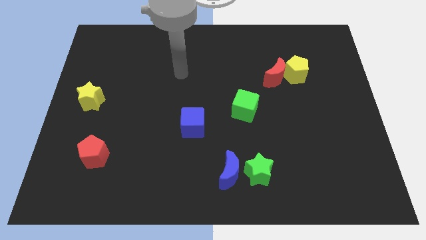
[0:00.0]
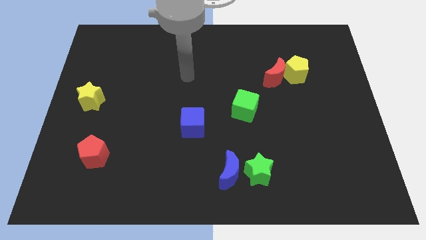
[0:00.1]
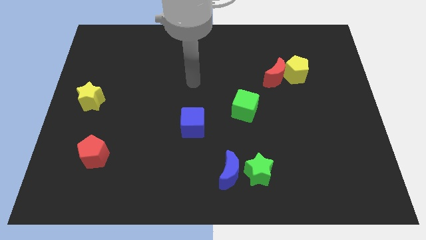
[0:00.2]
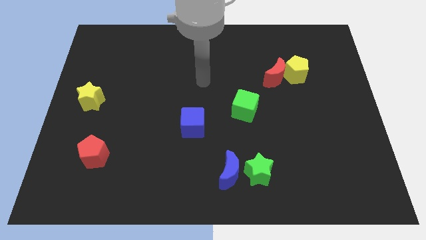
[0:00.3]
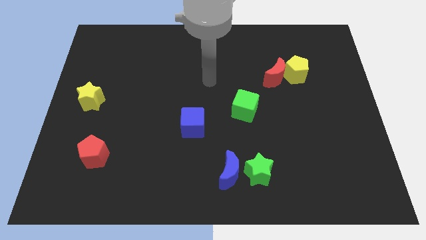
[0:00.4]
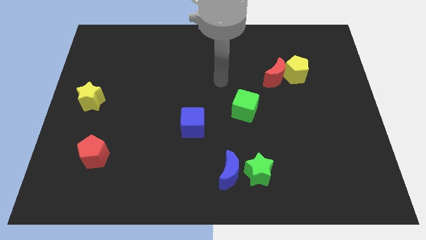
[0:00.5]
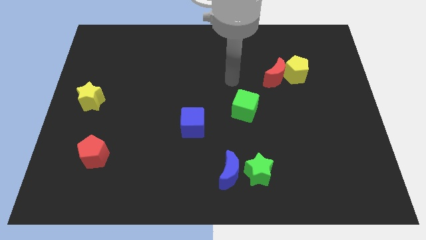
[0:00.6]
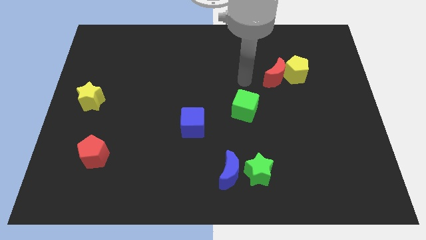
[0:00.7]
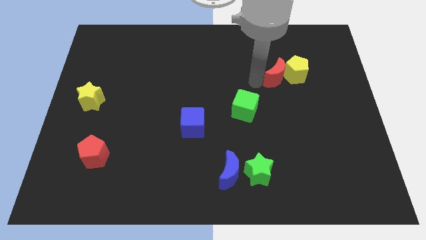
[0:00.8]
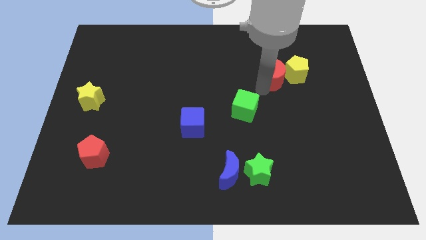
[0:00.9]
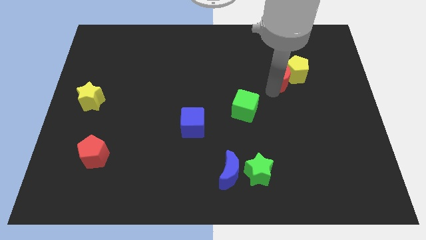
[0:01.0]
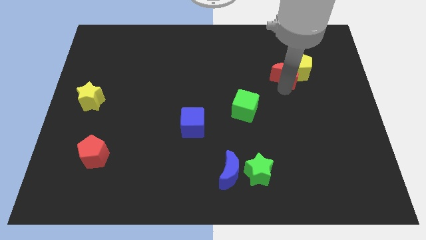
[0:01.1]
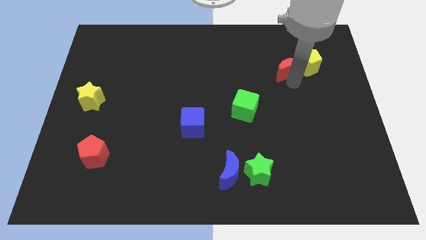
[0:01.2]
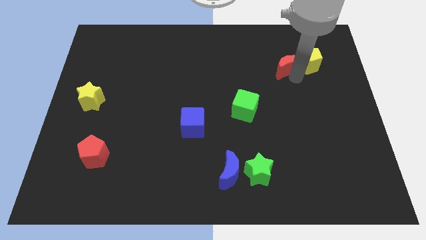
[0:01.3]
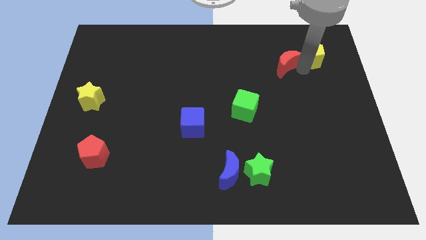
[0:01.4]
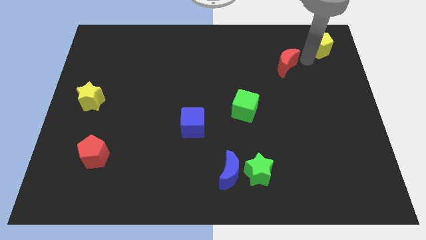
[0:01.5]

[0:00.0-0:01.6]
pull the red moon apart from the yellow pentagon

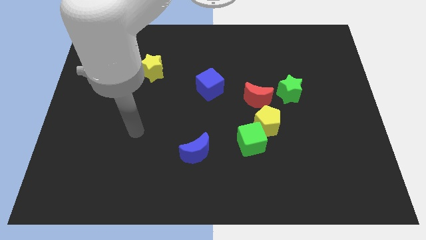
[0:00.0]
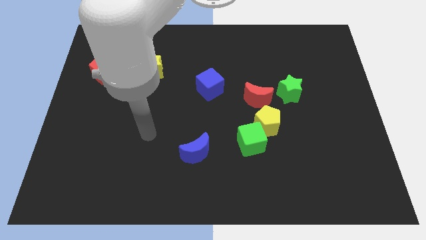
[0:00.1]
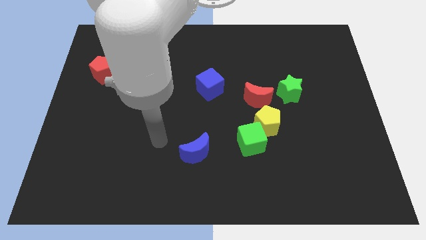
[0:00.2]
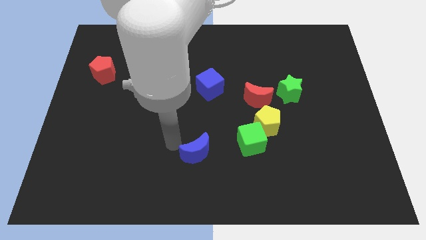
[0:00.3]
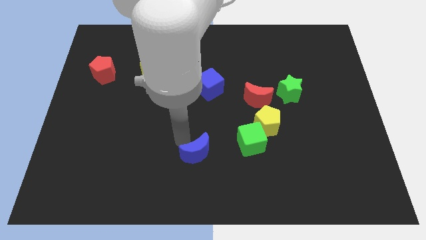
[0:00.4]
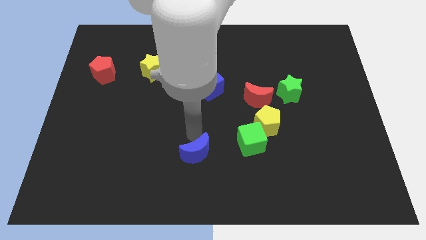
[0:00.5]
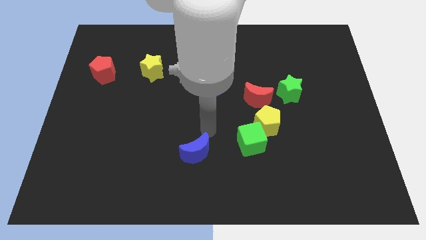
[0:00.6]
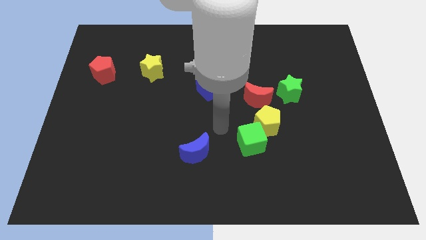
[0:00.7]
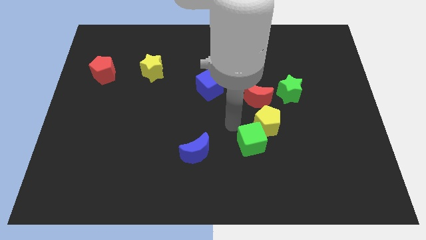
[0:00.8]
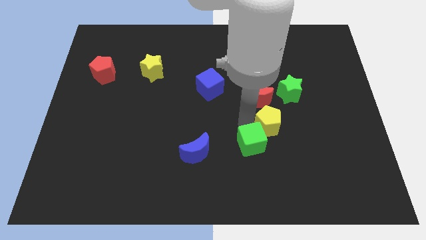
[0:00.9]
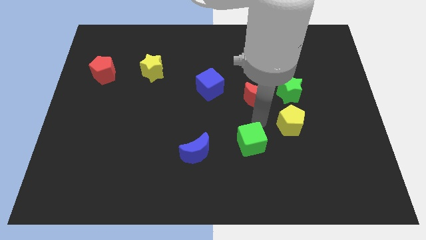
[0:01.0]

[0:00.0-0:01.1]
move the green cube away from the yellow pentagon

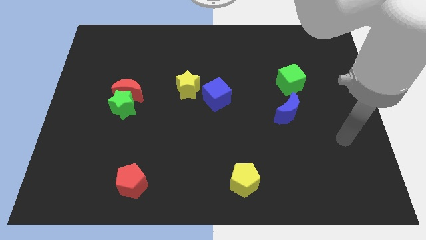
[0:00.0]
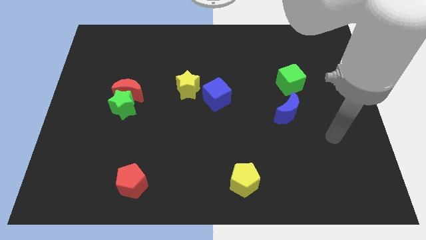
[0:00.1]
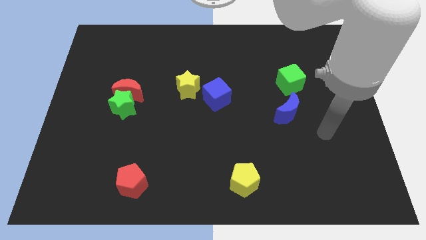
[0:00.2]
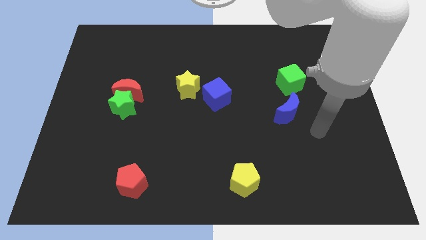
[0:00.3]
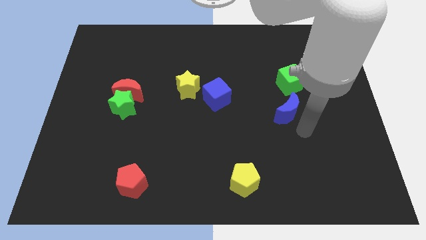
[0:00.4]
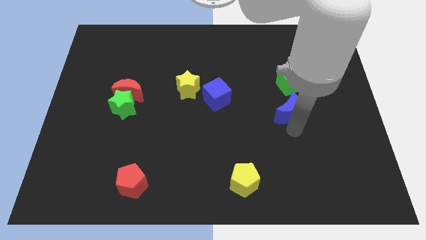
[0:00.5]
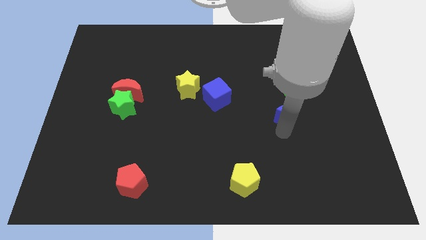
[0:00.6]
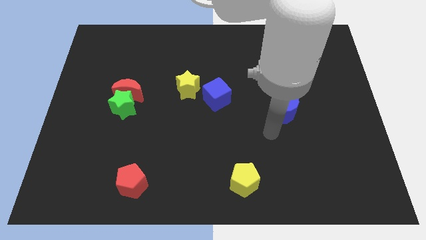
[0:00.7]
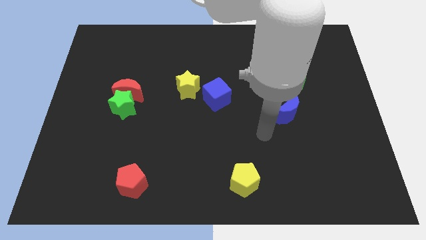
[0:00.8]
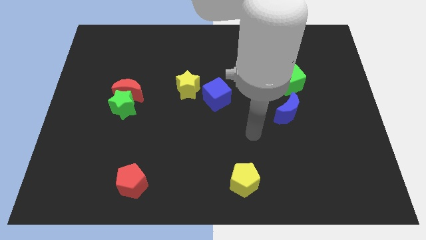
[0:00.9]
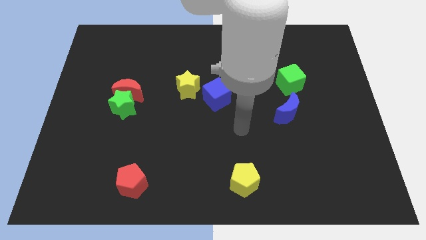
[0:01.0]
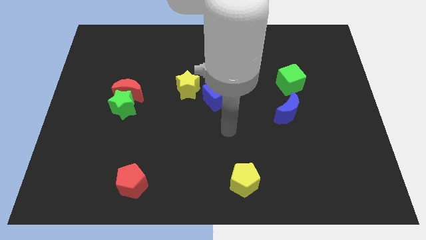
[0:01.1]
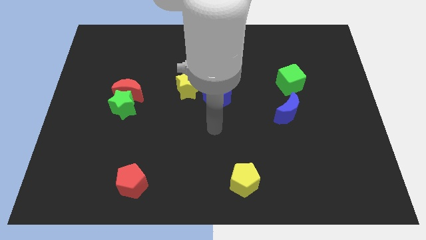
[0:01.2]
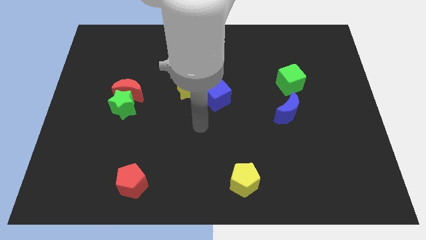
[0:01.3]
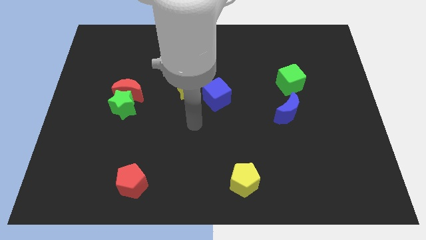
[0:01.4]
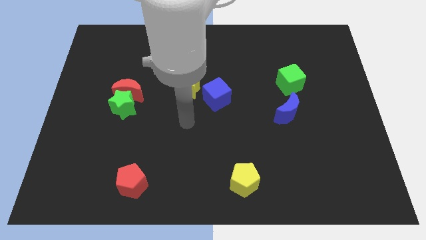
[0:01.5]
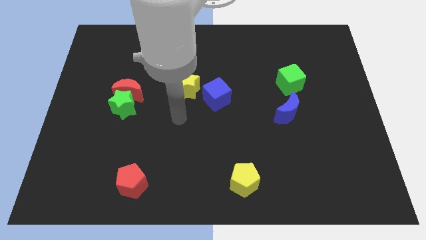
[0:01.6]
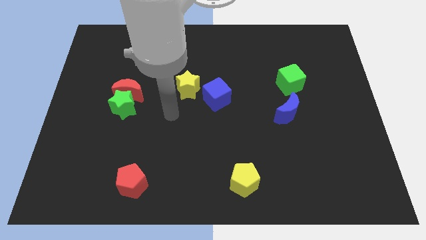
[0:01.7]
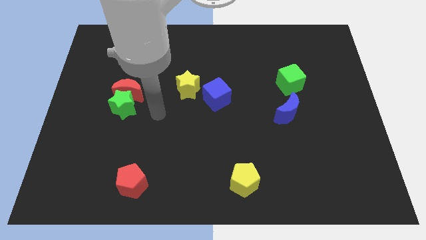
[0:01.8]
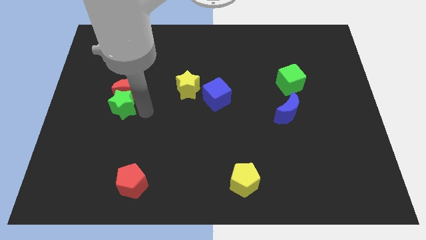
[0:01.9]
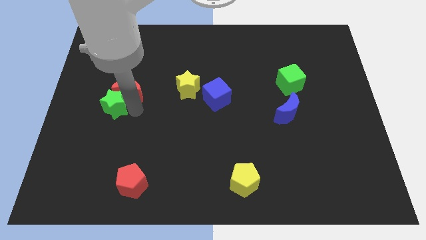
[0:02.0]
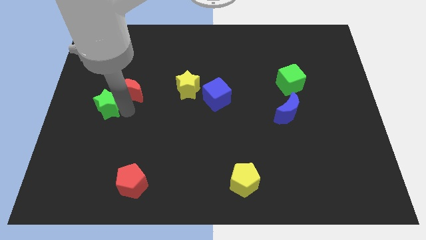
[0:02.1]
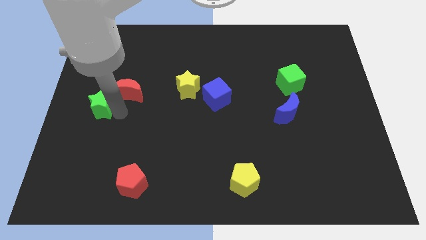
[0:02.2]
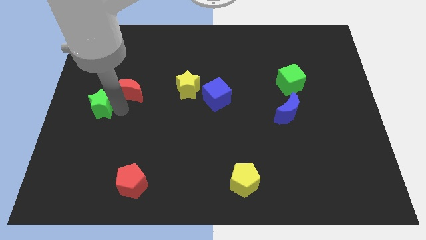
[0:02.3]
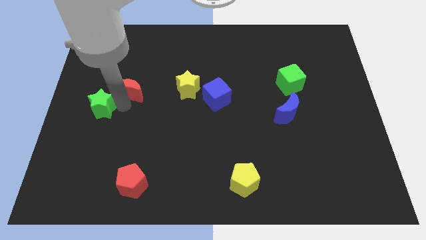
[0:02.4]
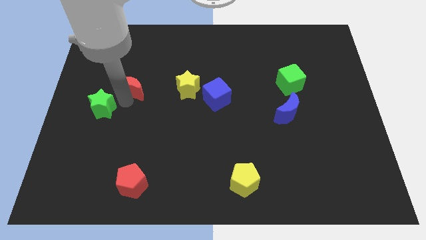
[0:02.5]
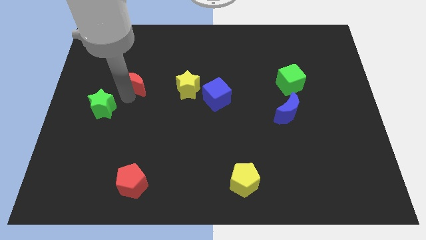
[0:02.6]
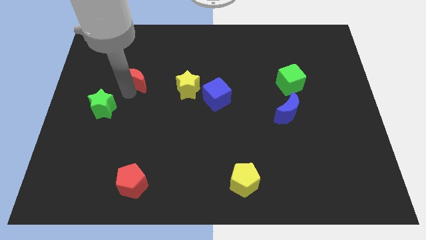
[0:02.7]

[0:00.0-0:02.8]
move the red moon away from the green star

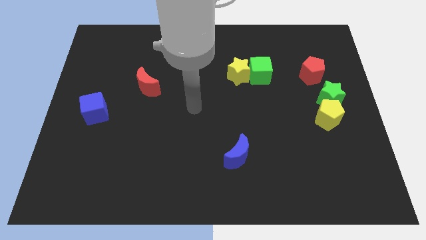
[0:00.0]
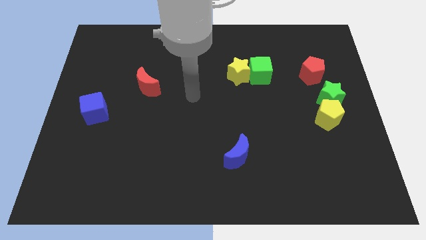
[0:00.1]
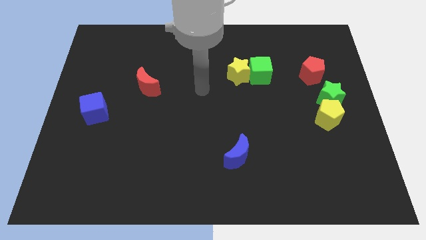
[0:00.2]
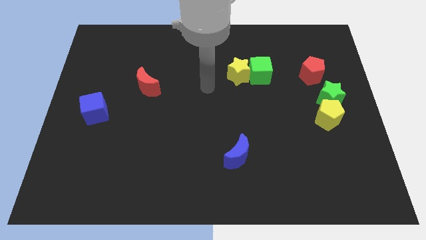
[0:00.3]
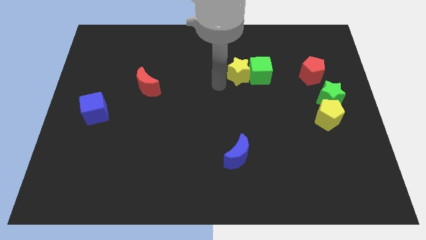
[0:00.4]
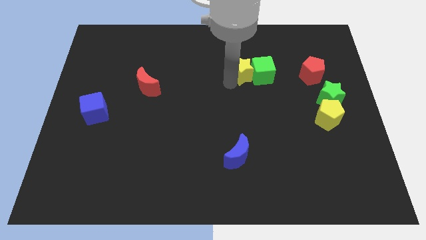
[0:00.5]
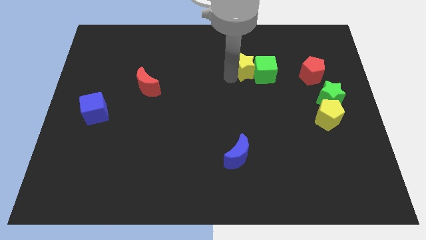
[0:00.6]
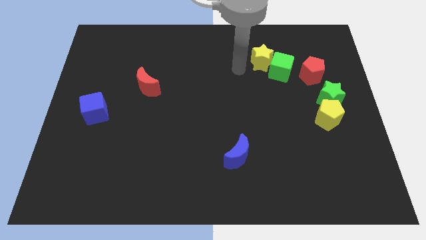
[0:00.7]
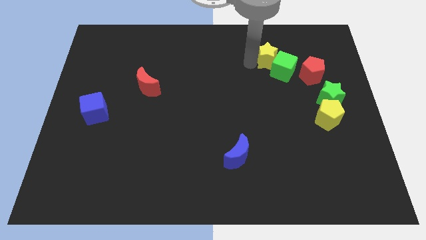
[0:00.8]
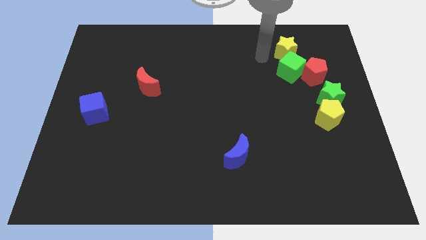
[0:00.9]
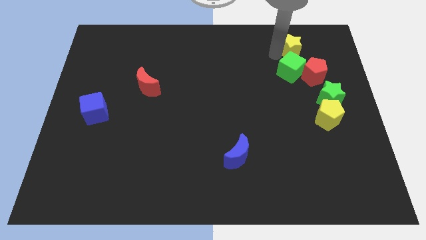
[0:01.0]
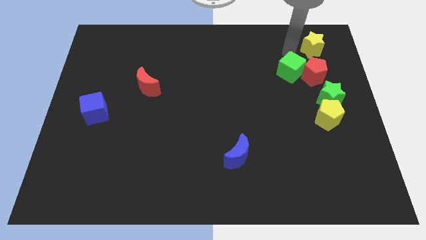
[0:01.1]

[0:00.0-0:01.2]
move the green cube away from the yellow star

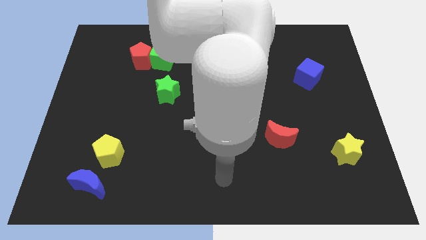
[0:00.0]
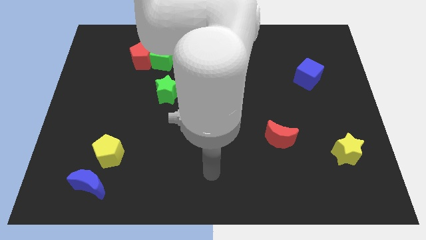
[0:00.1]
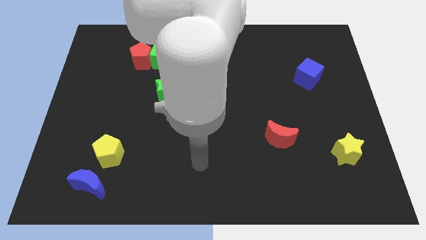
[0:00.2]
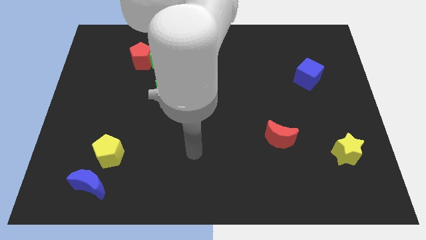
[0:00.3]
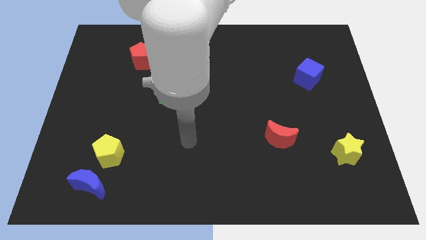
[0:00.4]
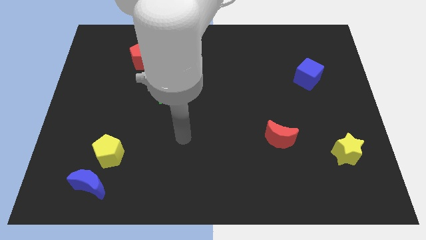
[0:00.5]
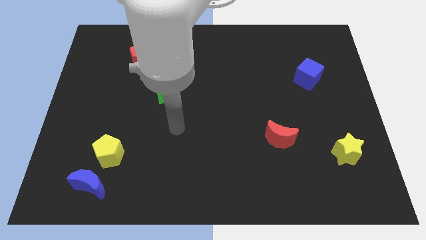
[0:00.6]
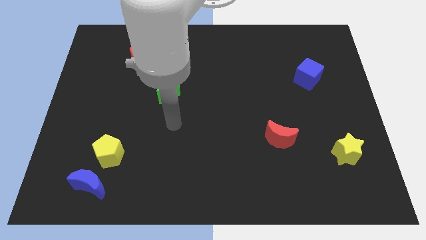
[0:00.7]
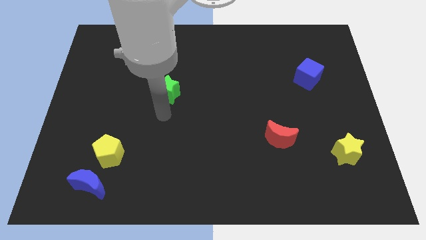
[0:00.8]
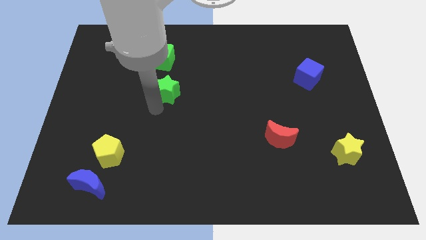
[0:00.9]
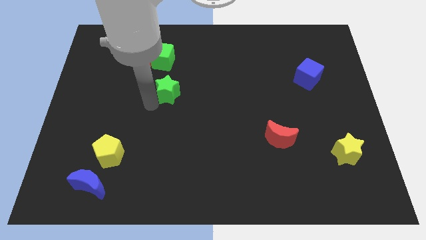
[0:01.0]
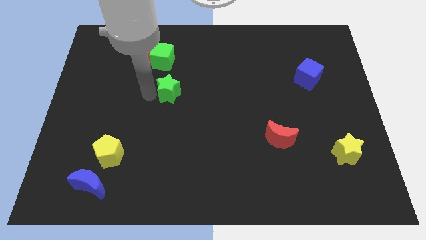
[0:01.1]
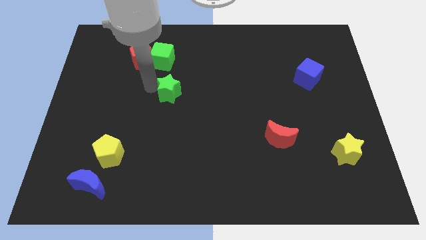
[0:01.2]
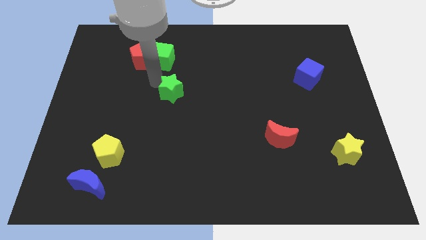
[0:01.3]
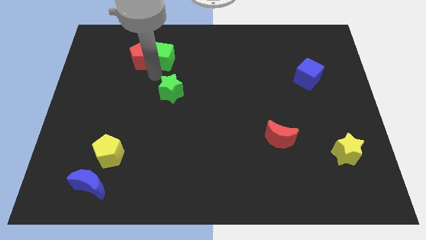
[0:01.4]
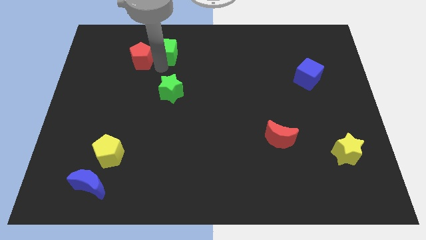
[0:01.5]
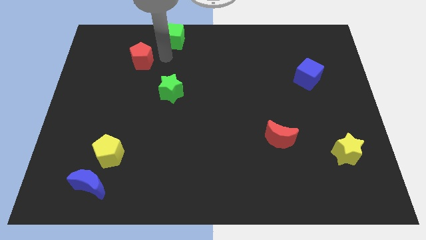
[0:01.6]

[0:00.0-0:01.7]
move the red pentagon away from the green cube

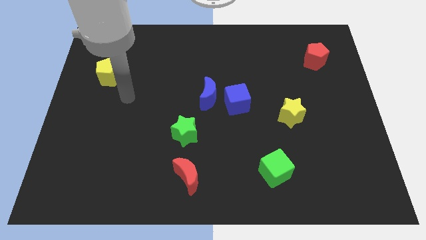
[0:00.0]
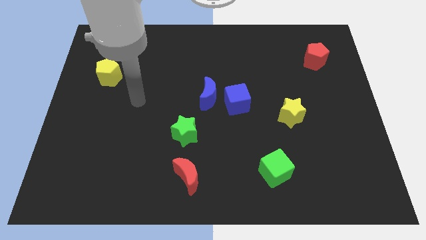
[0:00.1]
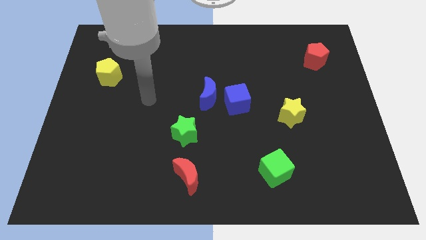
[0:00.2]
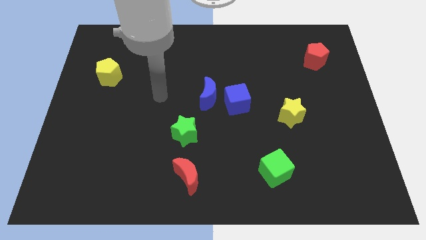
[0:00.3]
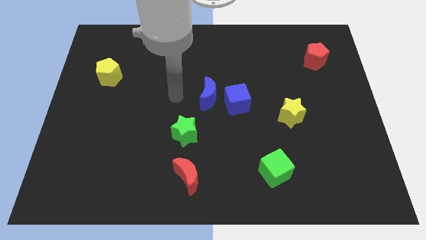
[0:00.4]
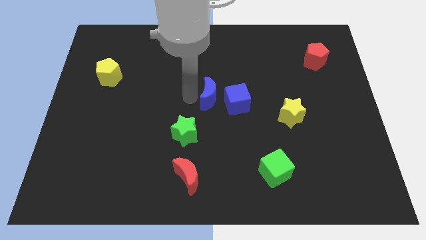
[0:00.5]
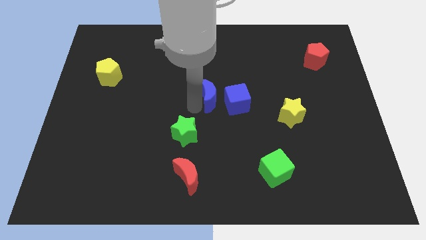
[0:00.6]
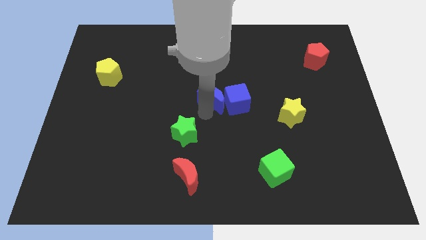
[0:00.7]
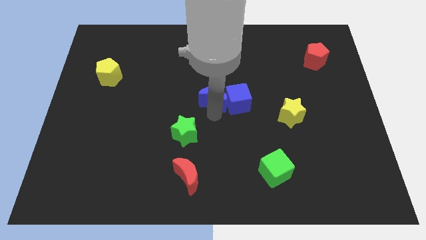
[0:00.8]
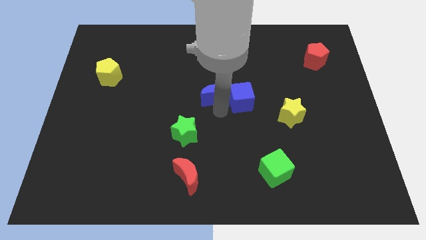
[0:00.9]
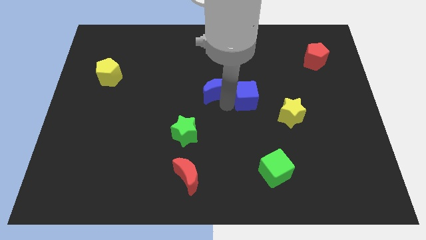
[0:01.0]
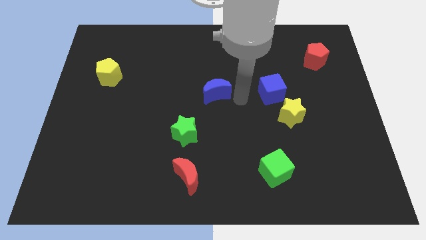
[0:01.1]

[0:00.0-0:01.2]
pull the blue moon apart from the blue cube
